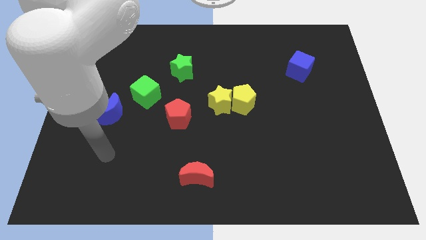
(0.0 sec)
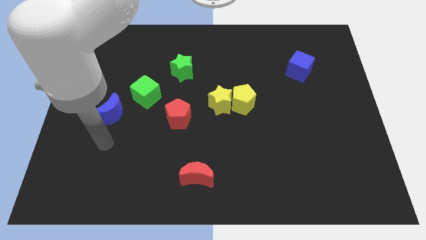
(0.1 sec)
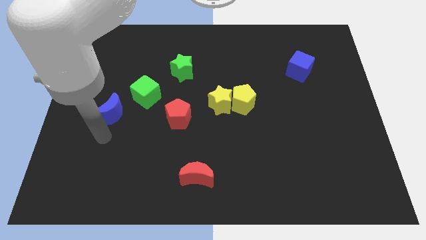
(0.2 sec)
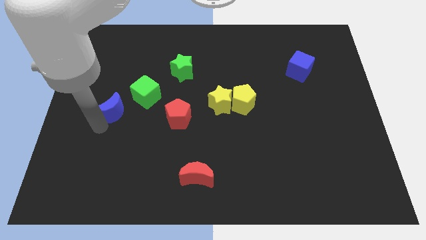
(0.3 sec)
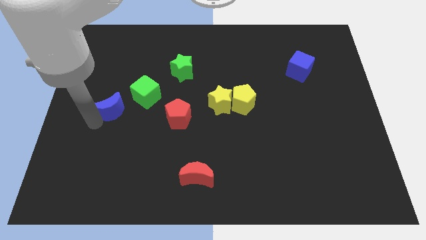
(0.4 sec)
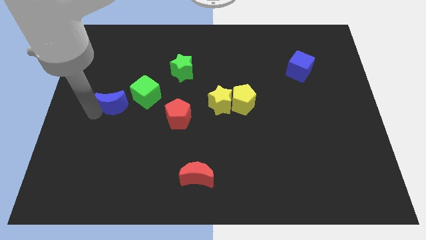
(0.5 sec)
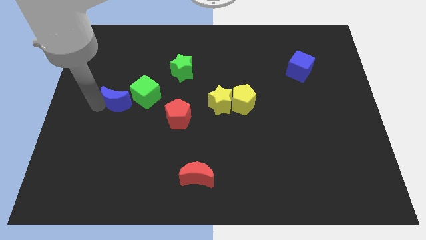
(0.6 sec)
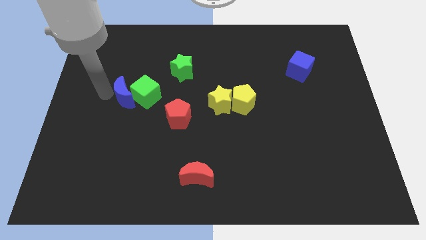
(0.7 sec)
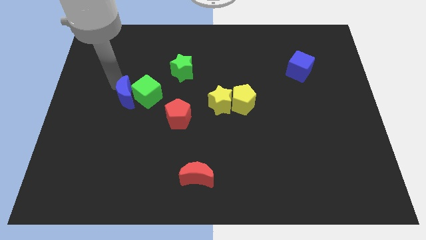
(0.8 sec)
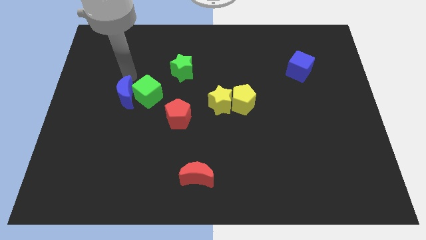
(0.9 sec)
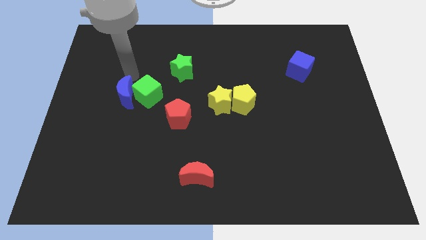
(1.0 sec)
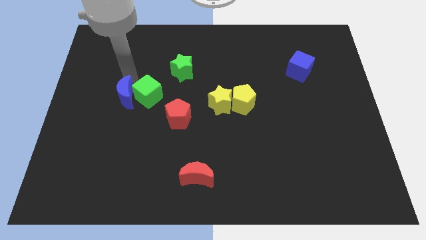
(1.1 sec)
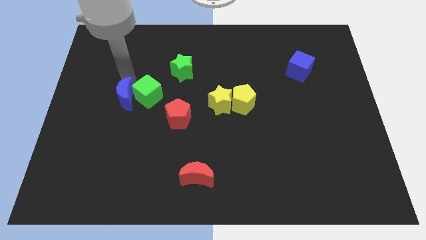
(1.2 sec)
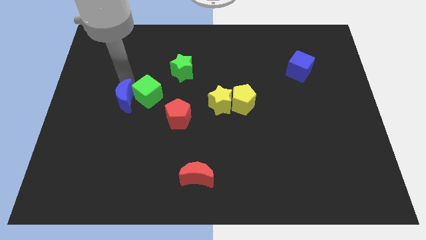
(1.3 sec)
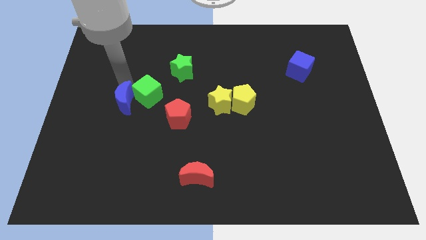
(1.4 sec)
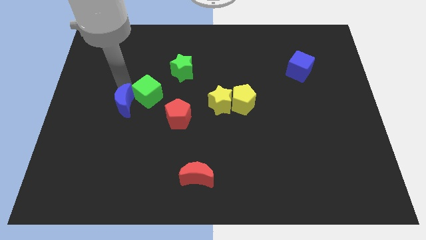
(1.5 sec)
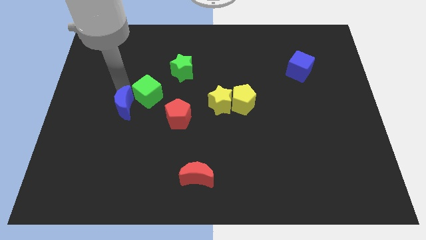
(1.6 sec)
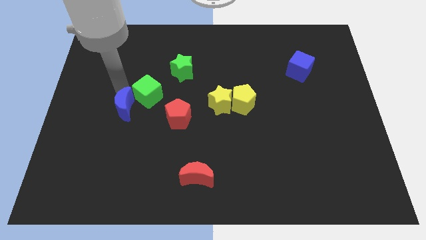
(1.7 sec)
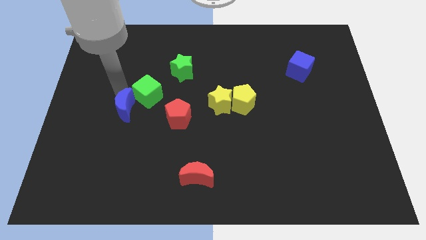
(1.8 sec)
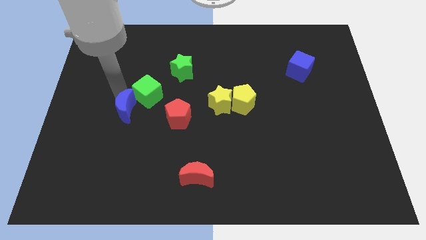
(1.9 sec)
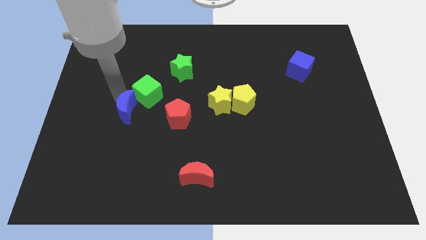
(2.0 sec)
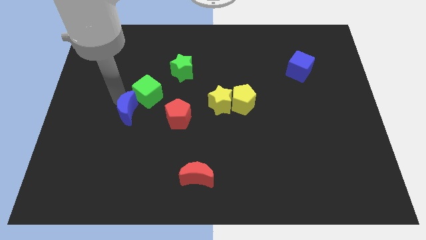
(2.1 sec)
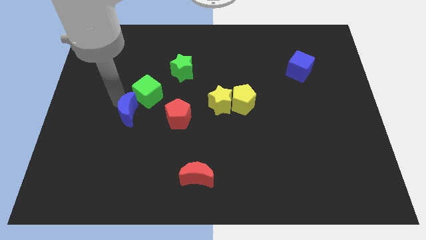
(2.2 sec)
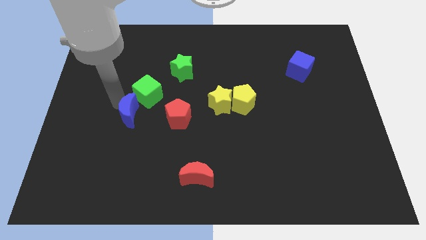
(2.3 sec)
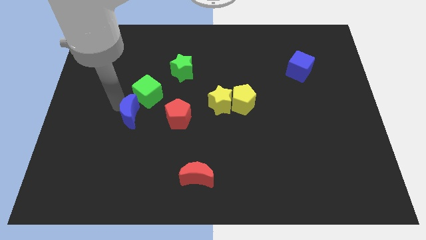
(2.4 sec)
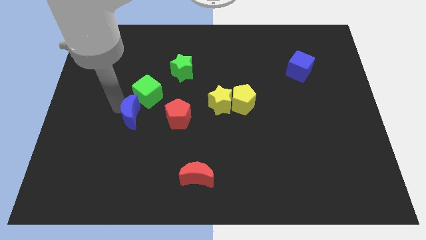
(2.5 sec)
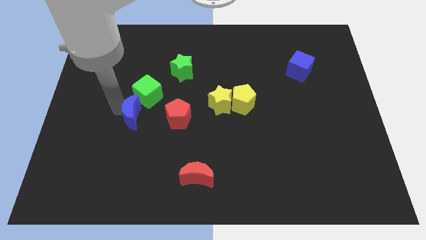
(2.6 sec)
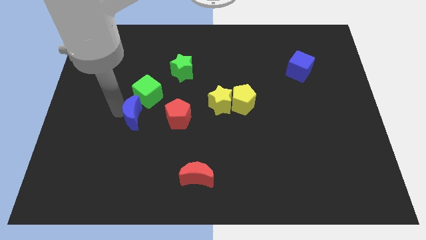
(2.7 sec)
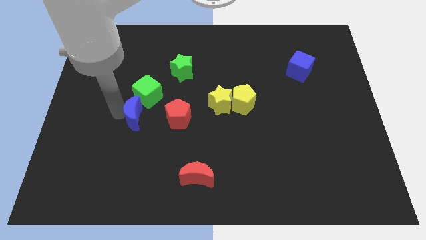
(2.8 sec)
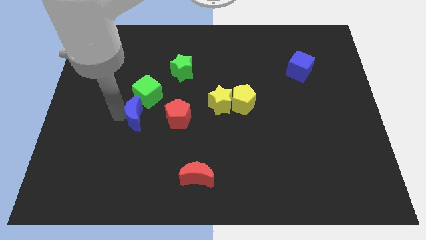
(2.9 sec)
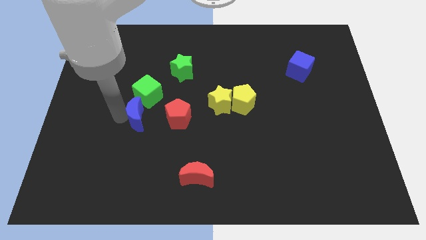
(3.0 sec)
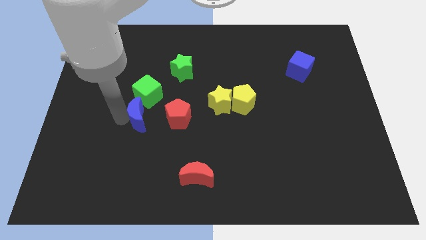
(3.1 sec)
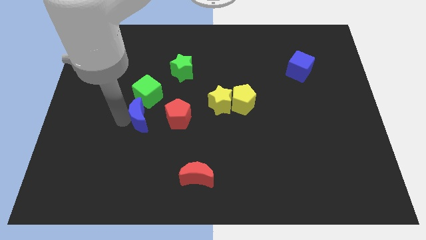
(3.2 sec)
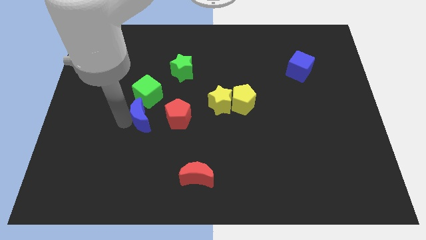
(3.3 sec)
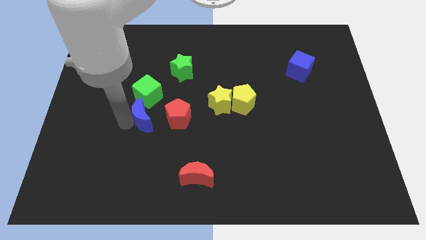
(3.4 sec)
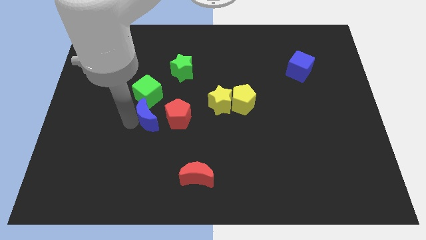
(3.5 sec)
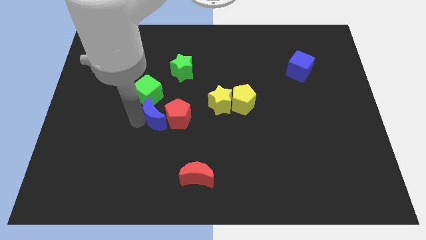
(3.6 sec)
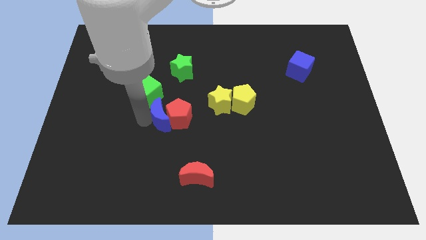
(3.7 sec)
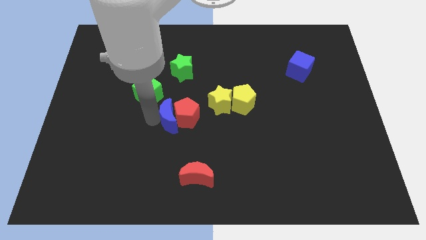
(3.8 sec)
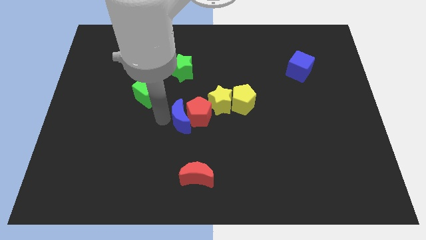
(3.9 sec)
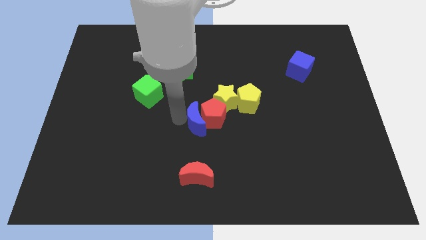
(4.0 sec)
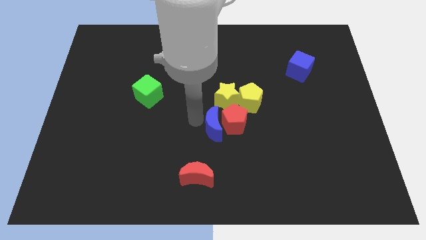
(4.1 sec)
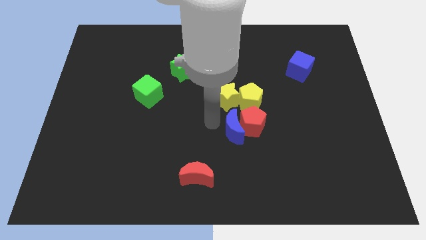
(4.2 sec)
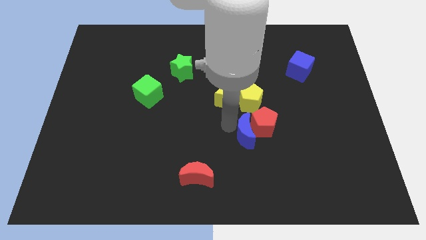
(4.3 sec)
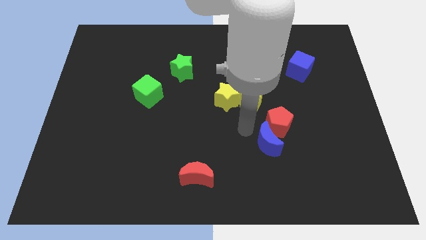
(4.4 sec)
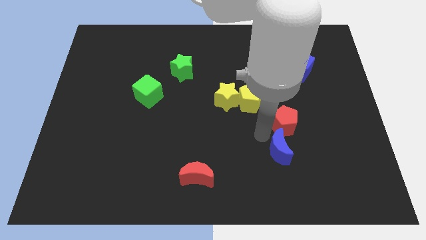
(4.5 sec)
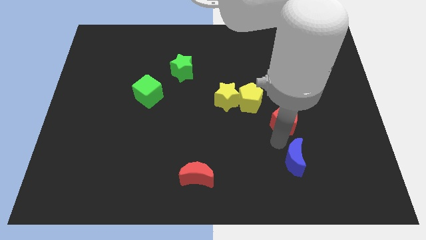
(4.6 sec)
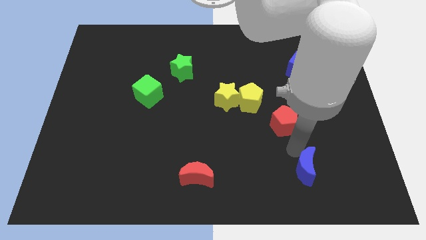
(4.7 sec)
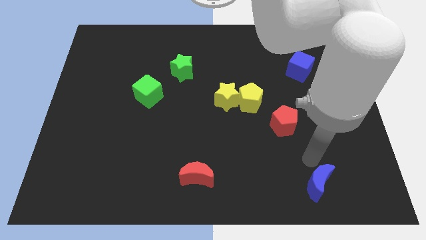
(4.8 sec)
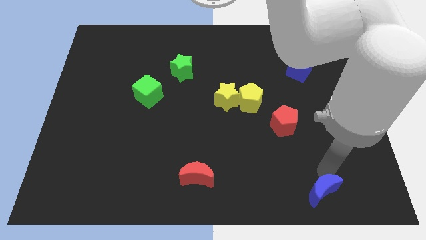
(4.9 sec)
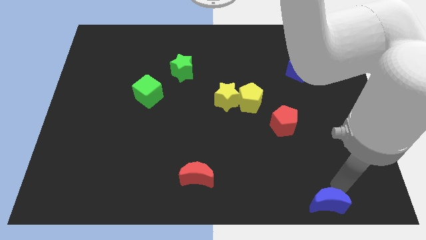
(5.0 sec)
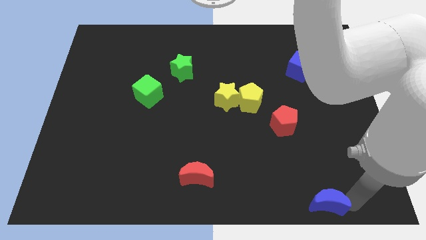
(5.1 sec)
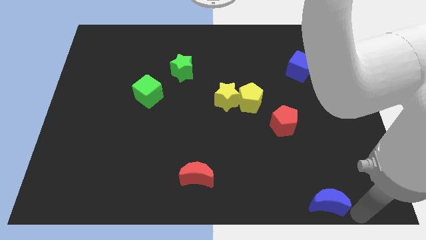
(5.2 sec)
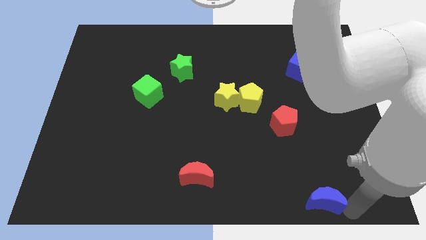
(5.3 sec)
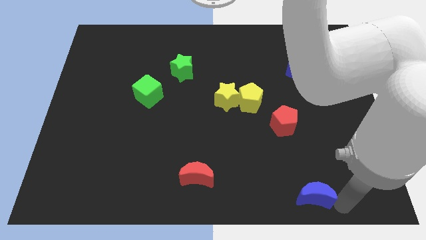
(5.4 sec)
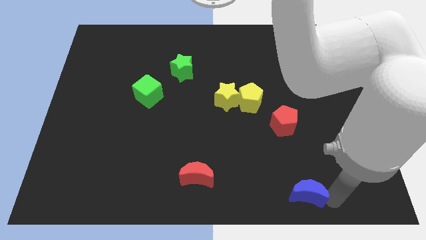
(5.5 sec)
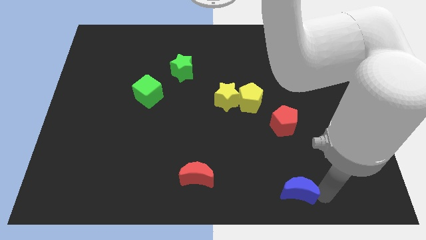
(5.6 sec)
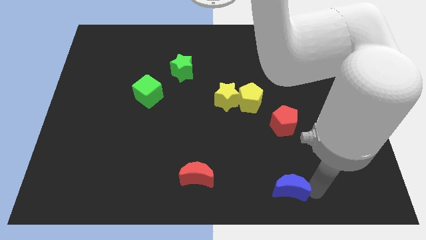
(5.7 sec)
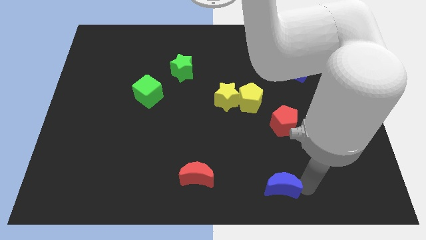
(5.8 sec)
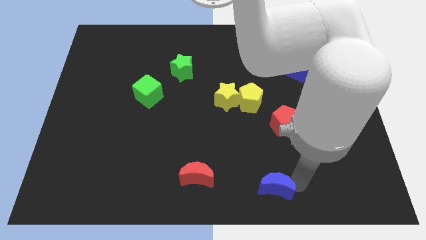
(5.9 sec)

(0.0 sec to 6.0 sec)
push the blue moon to the bottom side
